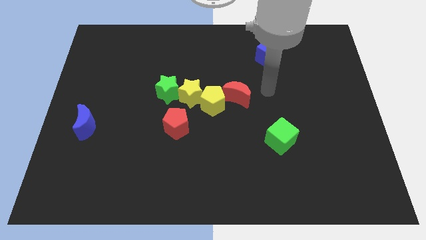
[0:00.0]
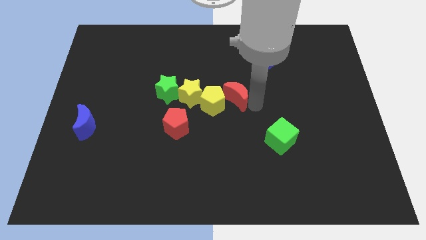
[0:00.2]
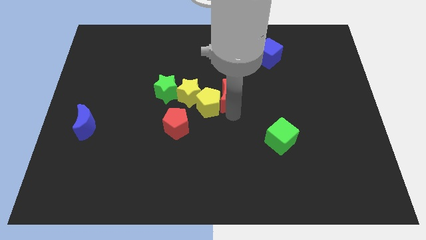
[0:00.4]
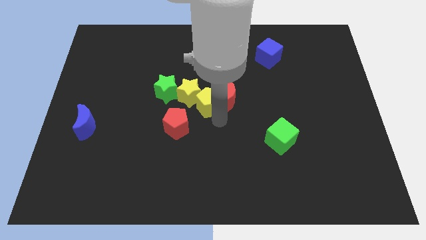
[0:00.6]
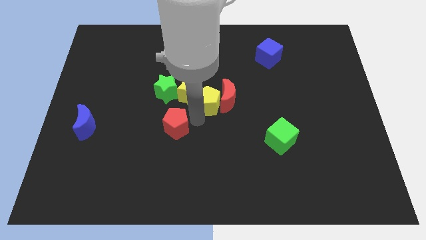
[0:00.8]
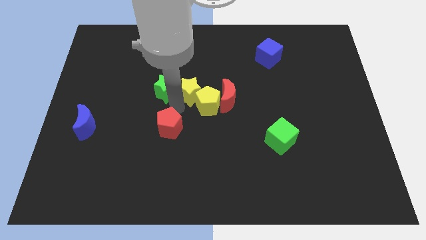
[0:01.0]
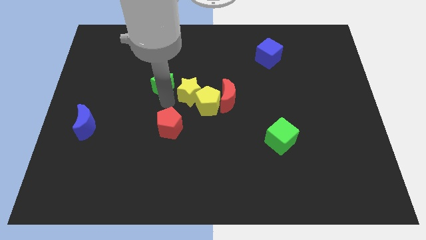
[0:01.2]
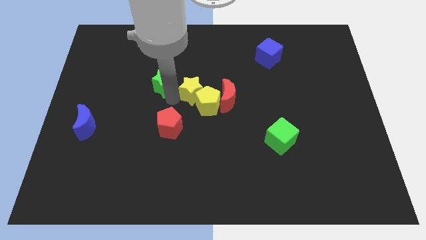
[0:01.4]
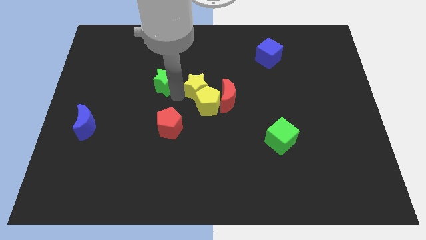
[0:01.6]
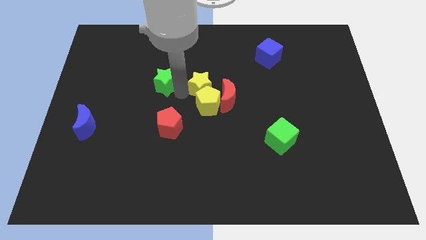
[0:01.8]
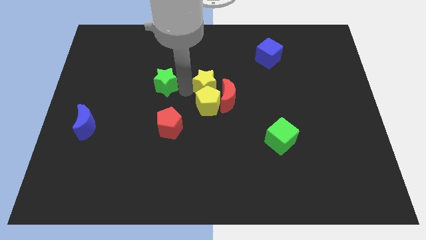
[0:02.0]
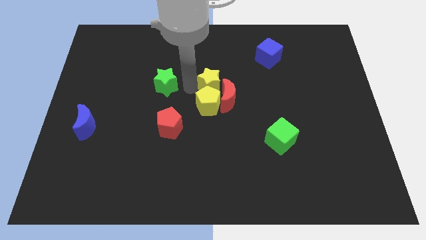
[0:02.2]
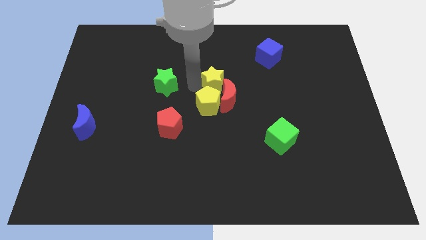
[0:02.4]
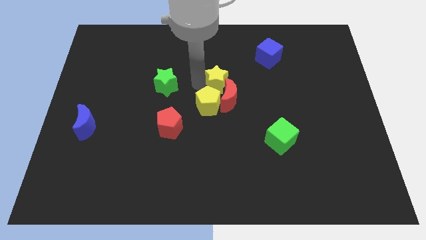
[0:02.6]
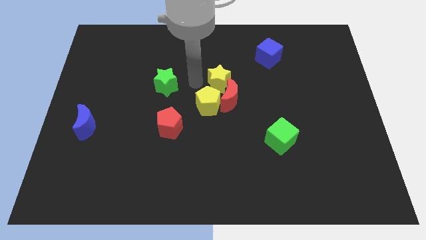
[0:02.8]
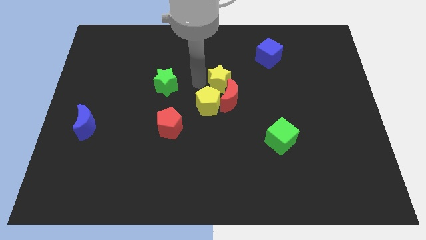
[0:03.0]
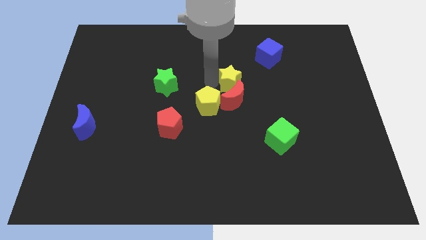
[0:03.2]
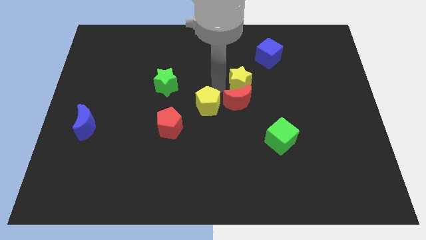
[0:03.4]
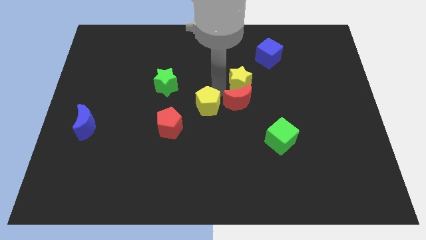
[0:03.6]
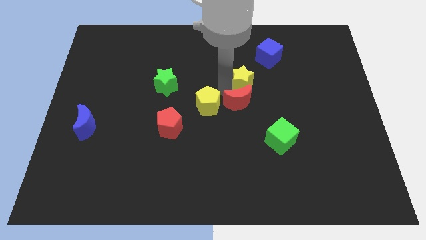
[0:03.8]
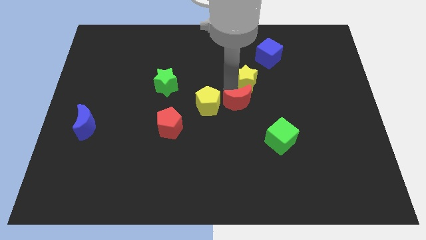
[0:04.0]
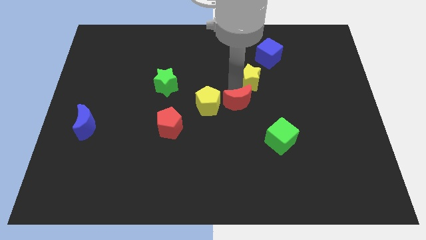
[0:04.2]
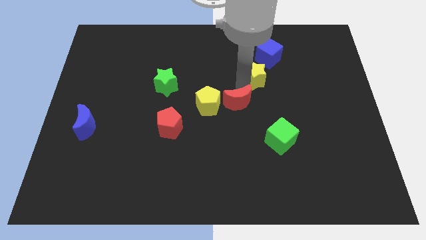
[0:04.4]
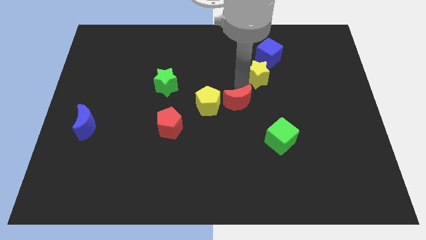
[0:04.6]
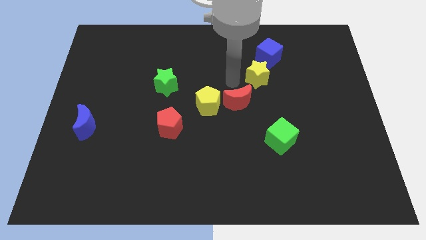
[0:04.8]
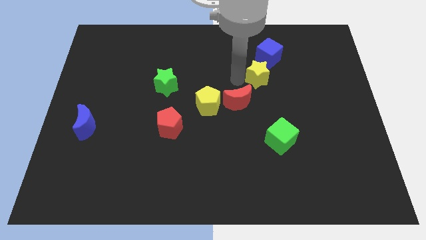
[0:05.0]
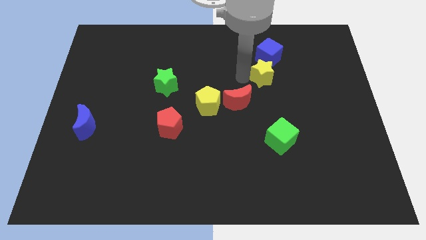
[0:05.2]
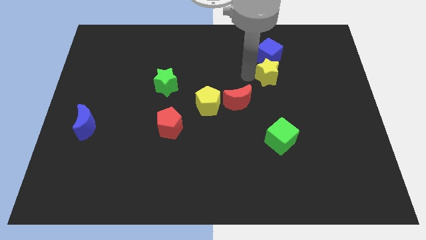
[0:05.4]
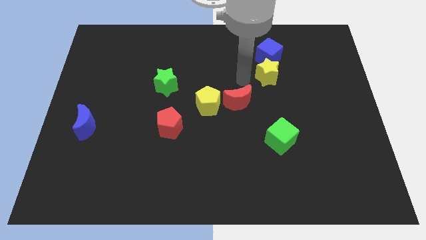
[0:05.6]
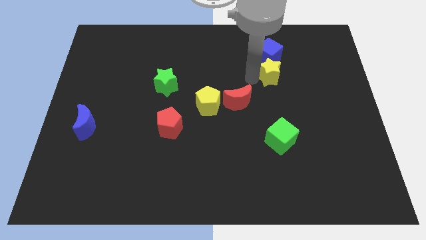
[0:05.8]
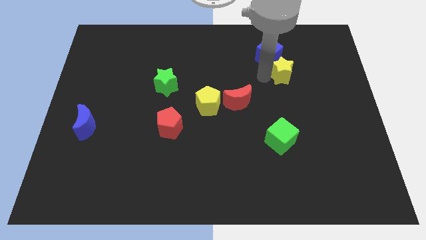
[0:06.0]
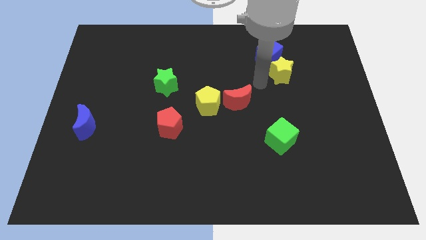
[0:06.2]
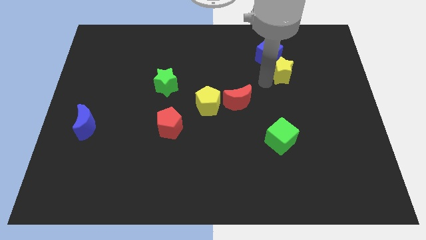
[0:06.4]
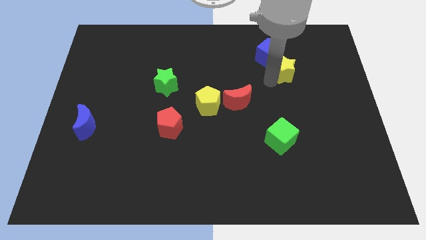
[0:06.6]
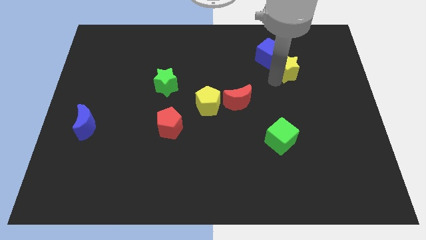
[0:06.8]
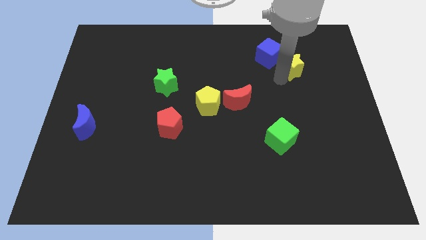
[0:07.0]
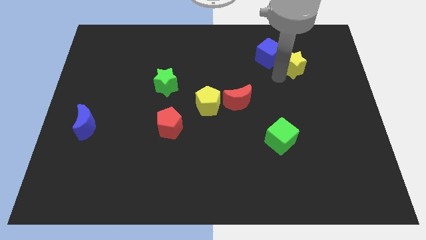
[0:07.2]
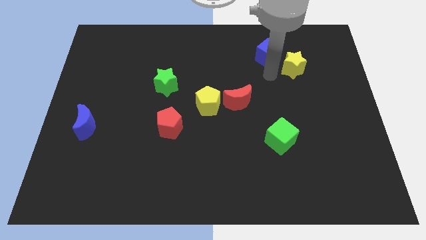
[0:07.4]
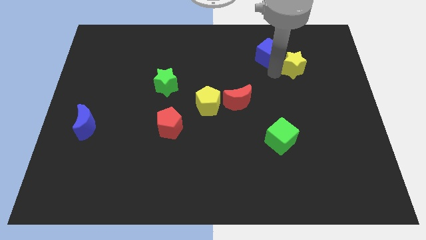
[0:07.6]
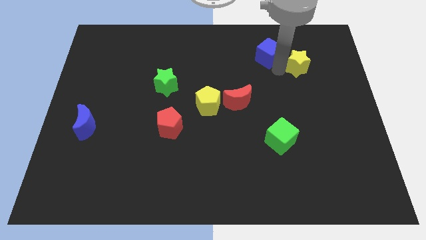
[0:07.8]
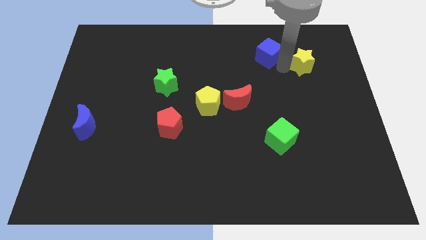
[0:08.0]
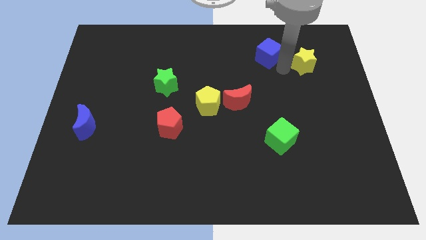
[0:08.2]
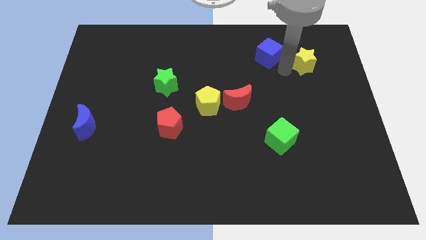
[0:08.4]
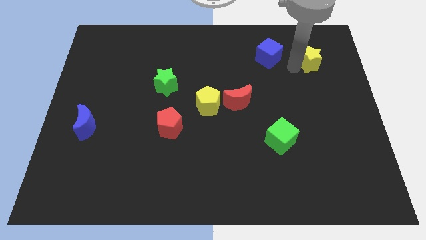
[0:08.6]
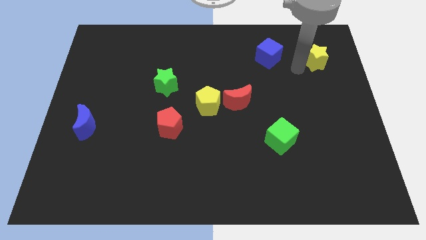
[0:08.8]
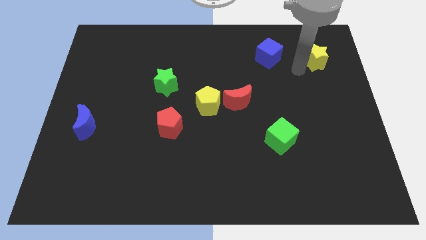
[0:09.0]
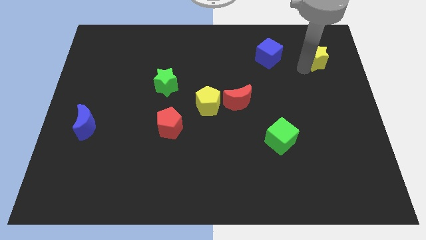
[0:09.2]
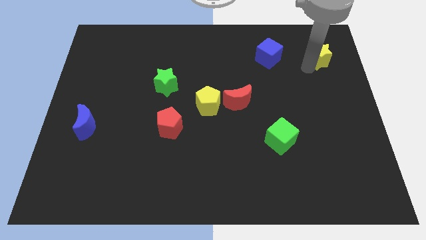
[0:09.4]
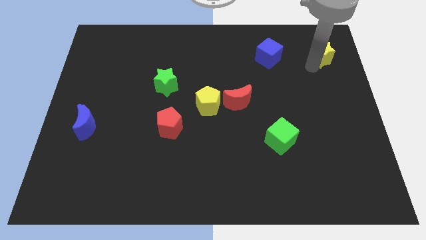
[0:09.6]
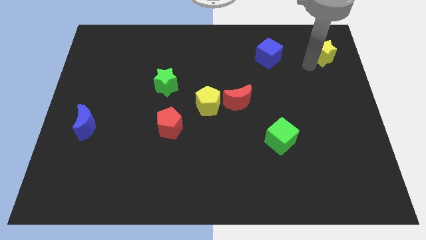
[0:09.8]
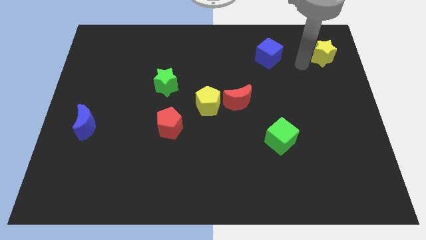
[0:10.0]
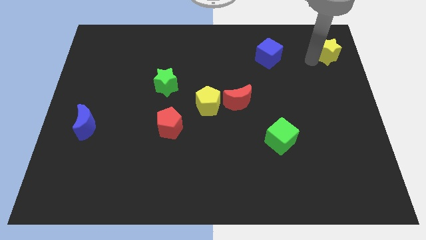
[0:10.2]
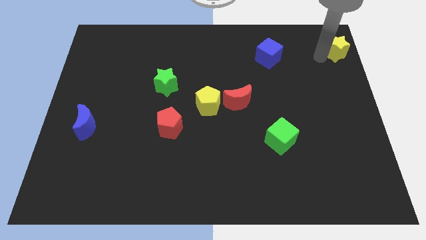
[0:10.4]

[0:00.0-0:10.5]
put the yellow star to the top right corner

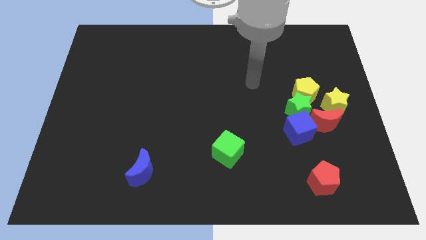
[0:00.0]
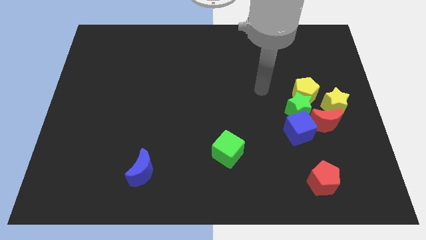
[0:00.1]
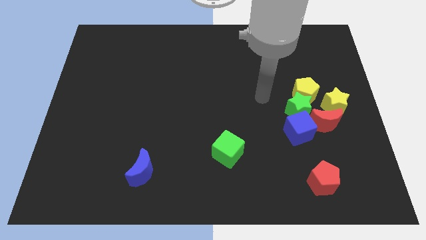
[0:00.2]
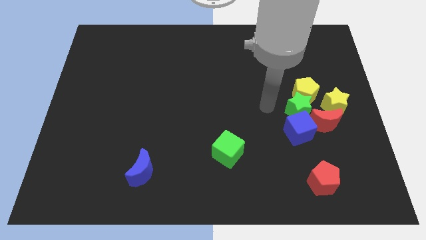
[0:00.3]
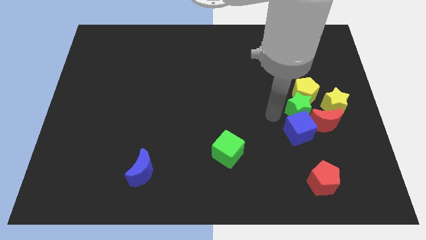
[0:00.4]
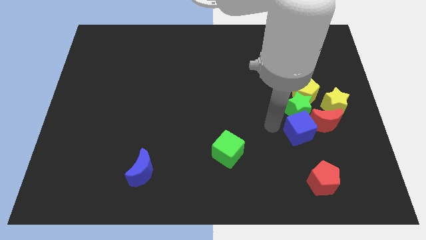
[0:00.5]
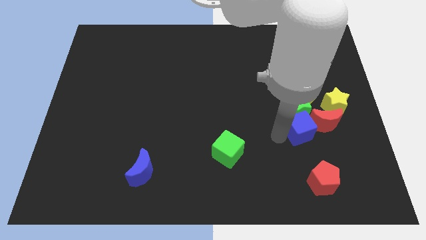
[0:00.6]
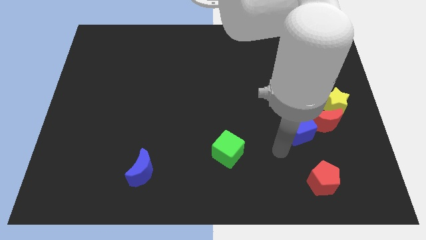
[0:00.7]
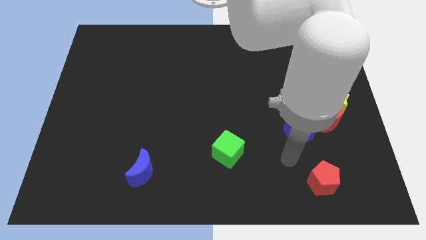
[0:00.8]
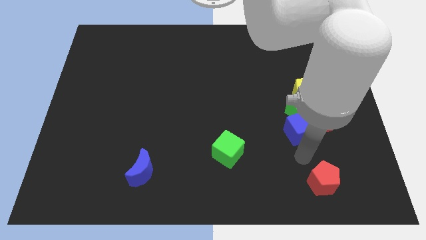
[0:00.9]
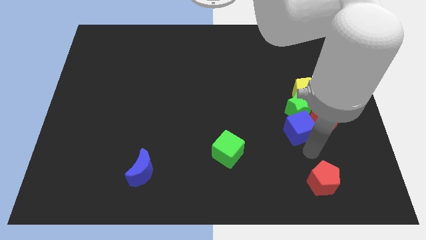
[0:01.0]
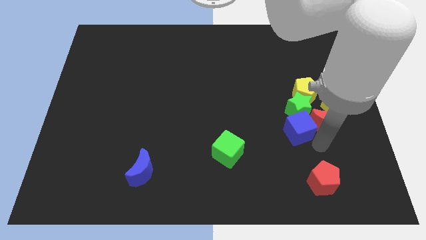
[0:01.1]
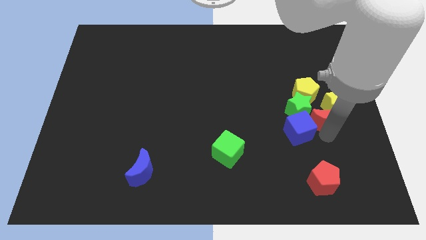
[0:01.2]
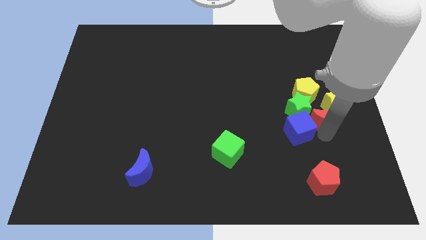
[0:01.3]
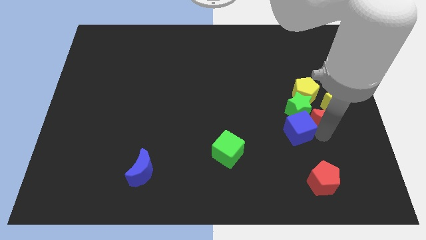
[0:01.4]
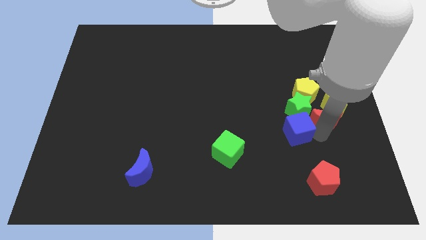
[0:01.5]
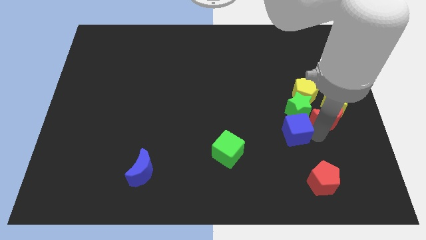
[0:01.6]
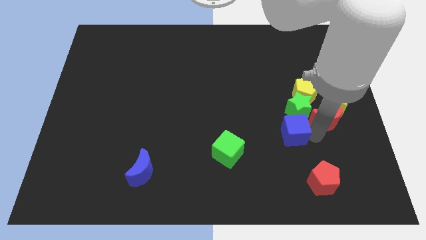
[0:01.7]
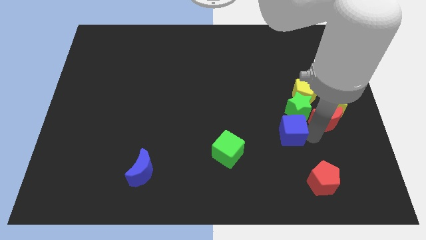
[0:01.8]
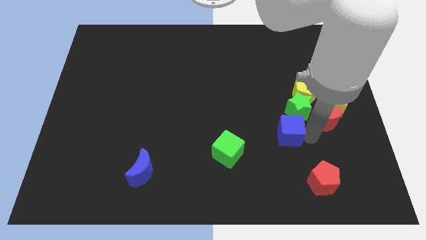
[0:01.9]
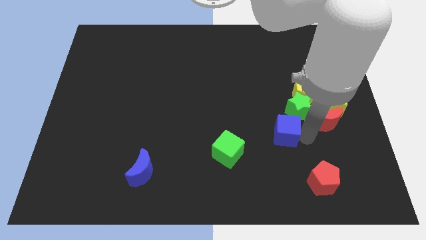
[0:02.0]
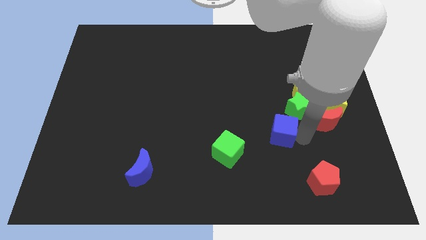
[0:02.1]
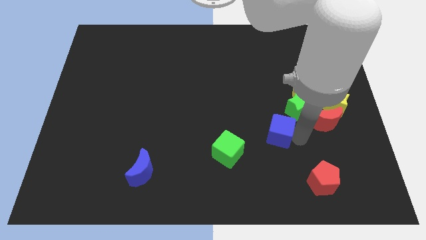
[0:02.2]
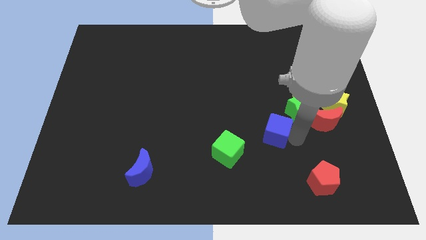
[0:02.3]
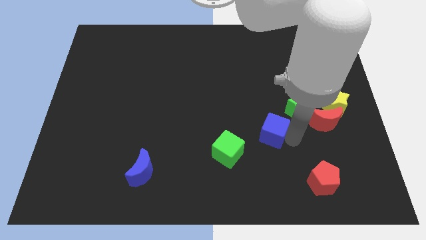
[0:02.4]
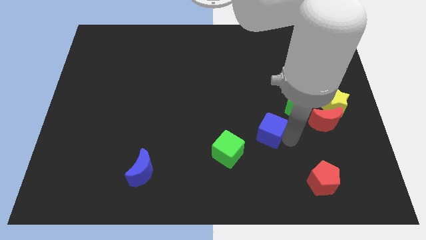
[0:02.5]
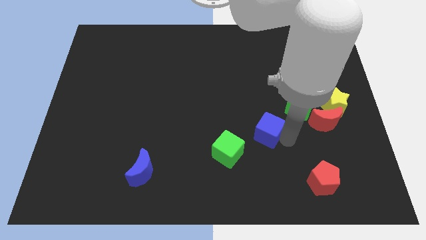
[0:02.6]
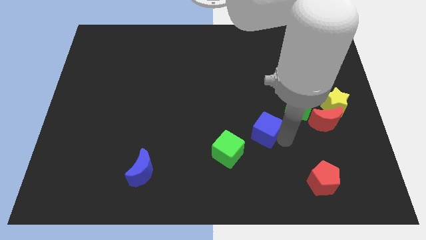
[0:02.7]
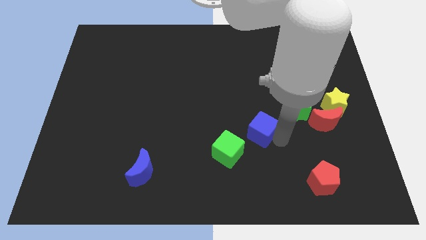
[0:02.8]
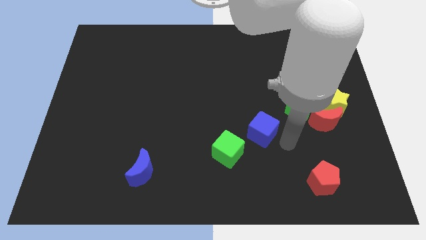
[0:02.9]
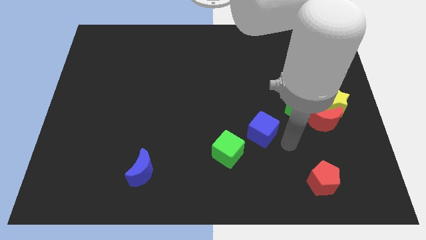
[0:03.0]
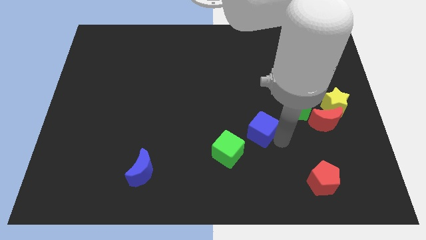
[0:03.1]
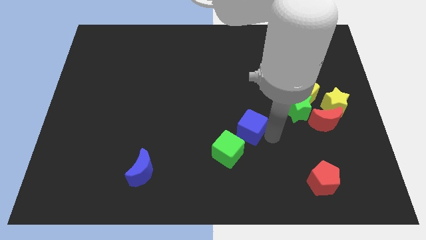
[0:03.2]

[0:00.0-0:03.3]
push the blue cube to the center of the board
